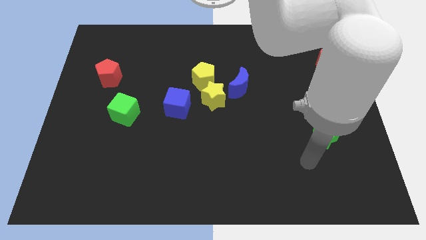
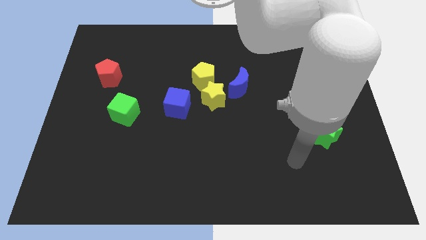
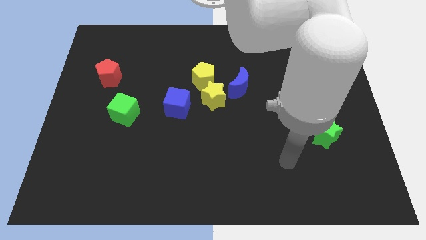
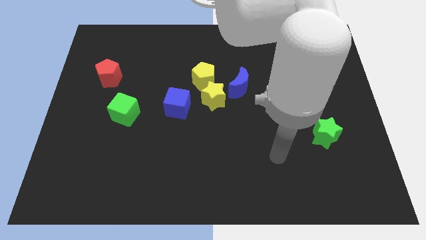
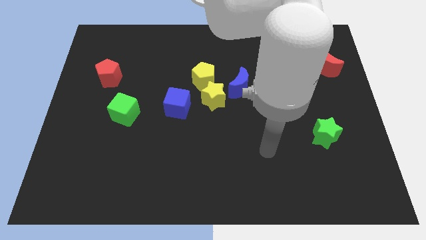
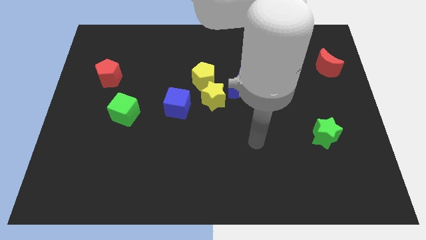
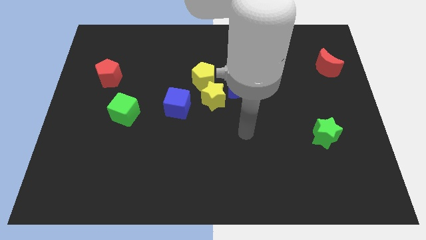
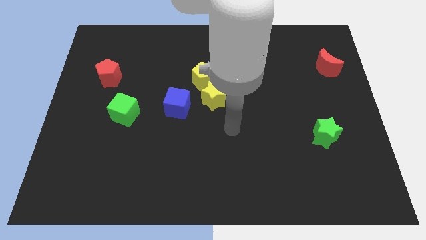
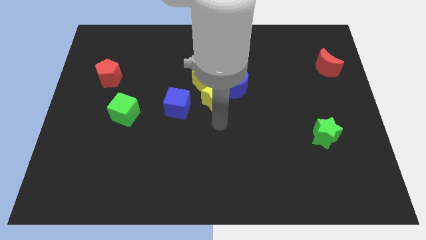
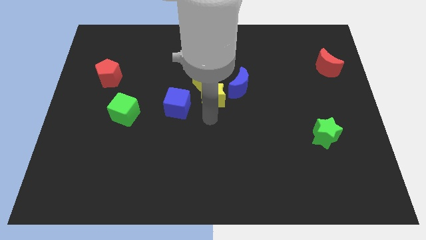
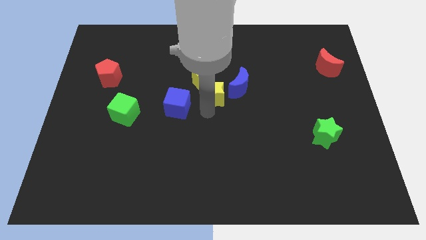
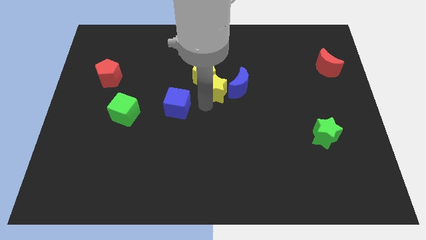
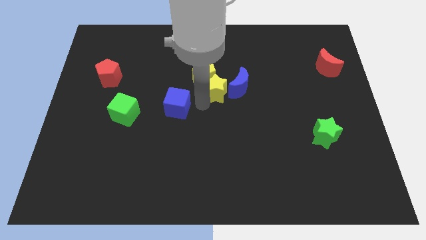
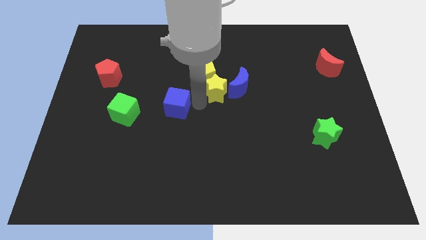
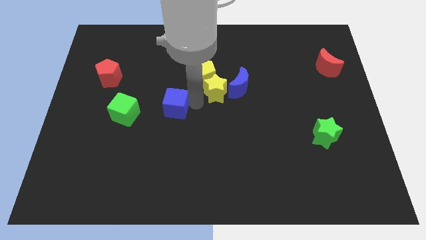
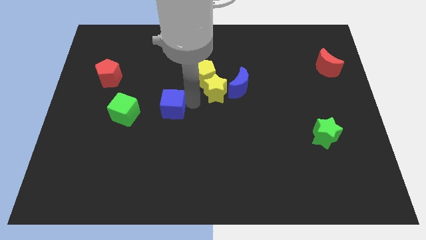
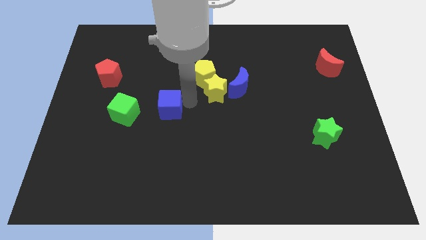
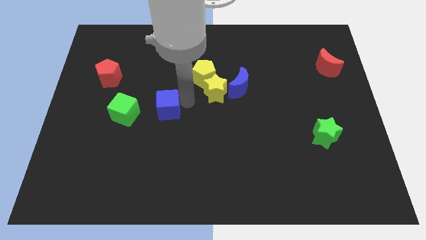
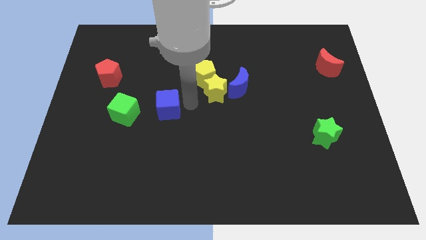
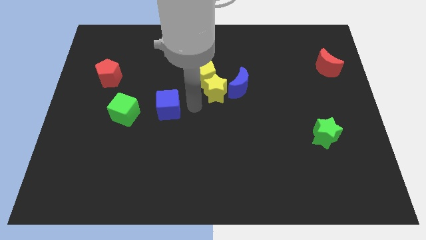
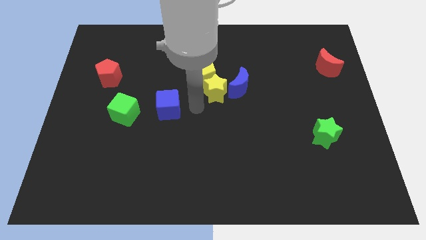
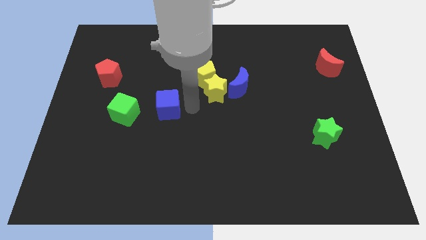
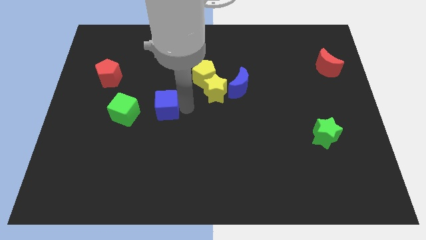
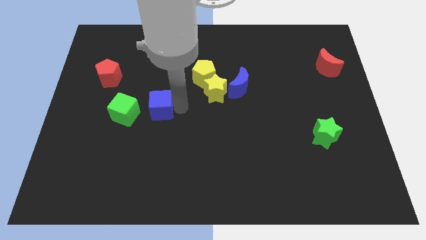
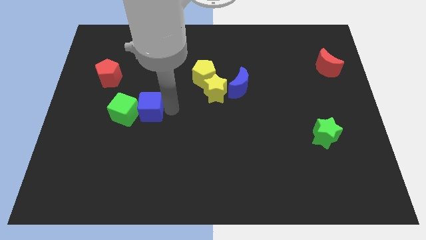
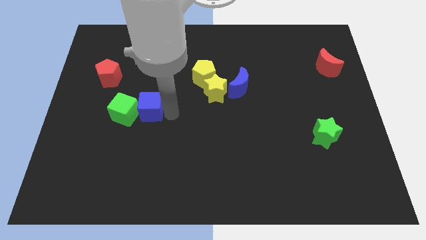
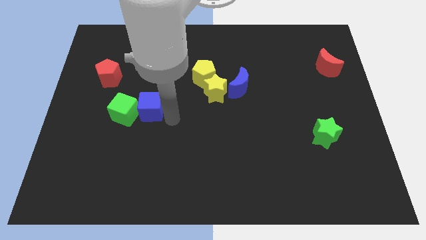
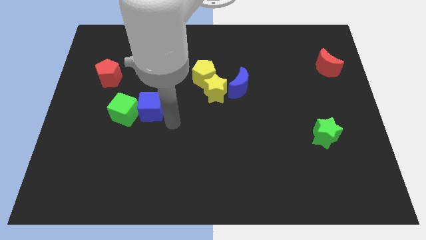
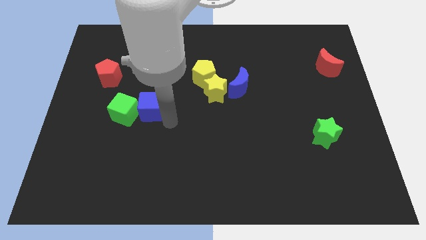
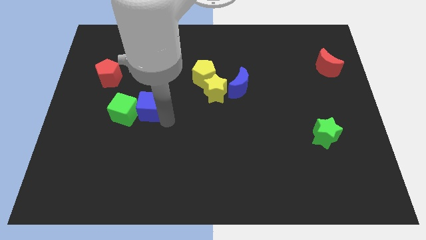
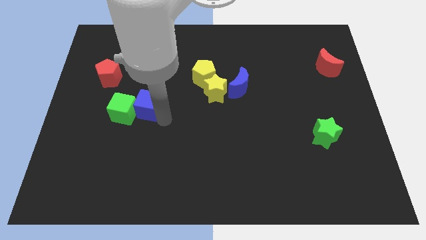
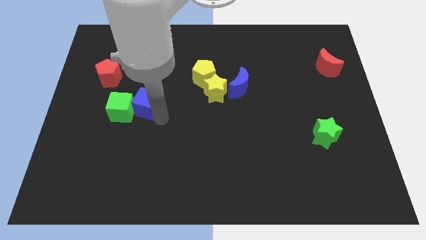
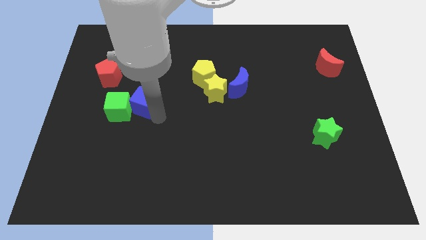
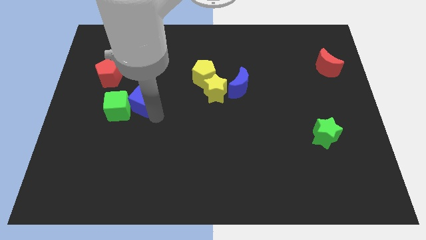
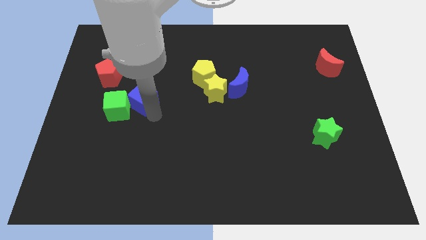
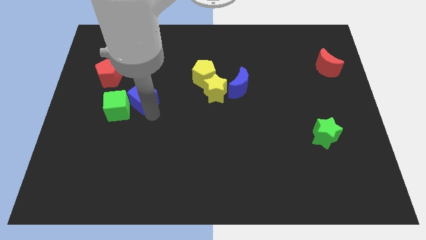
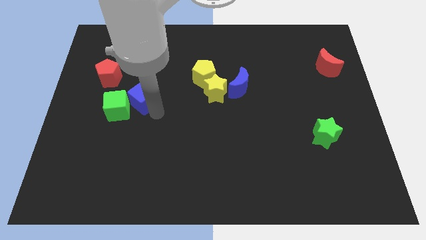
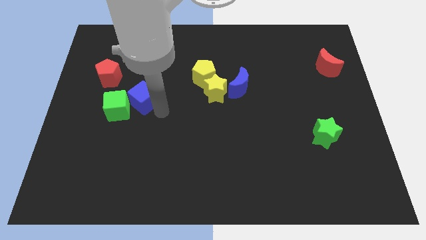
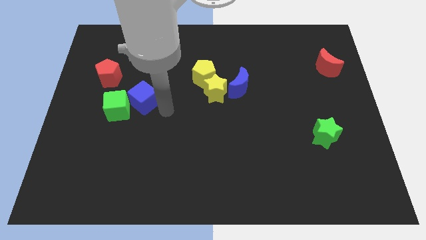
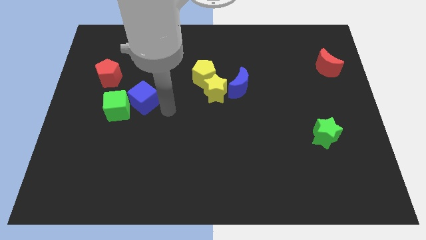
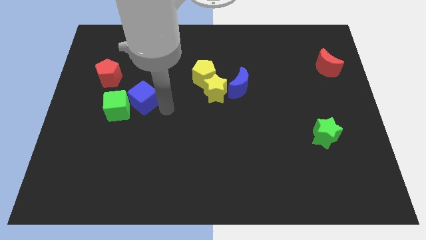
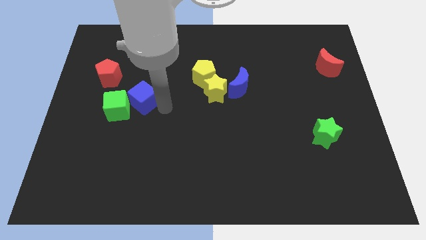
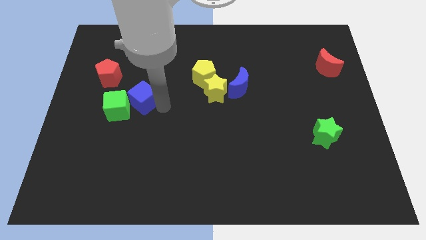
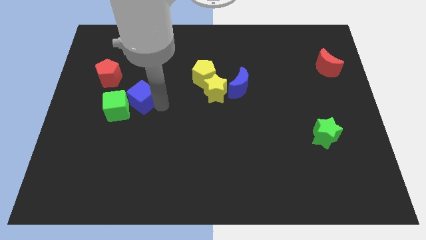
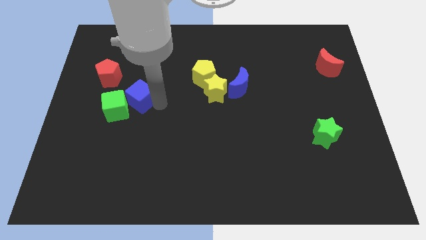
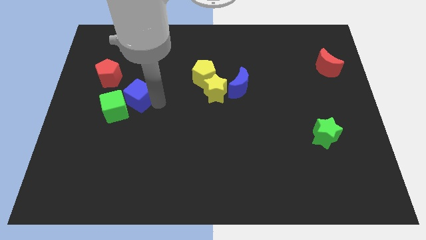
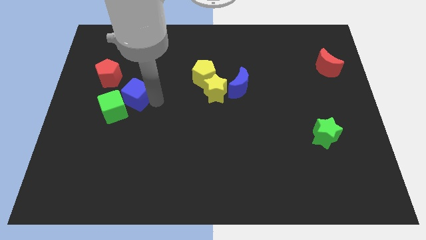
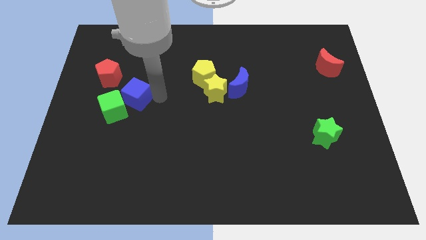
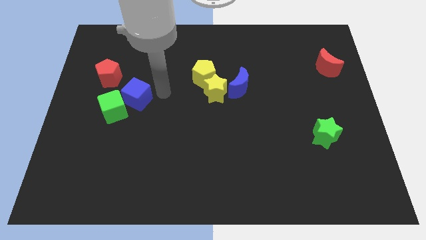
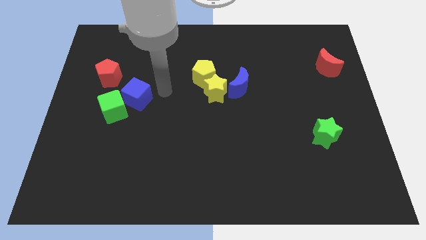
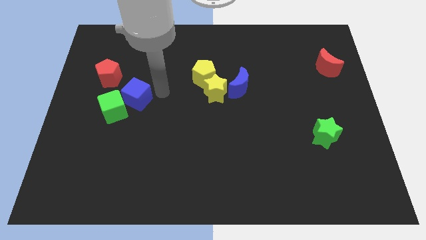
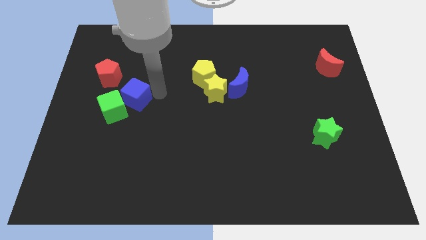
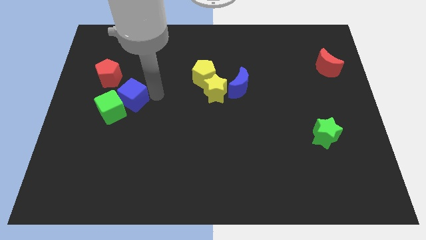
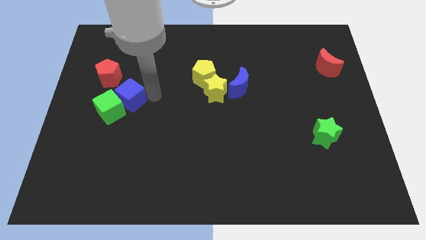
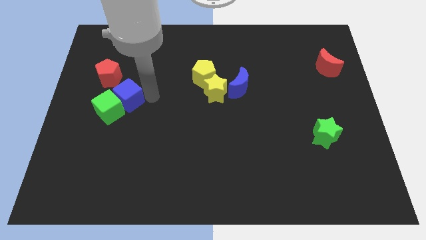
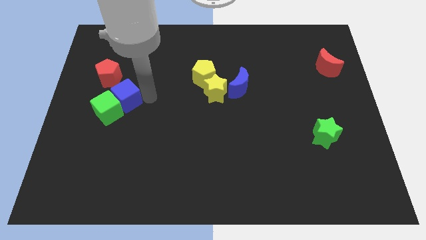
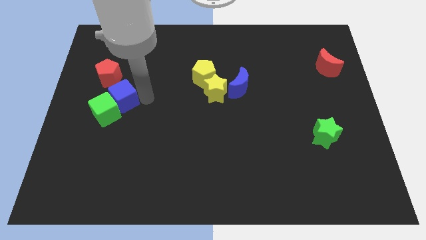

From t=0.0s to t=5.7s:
push the blue cube to the bottom of the red pentagon

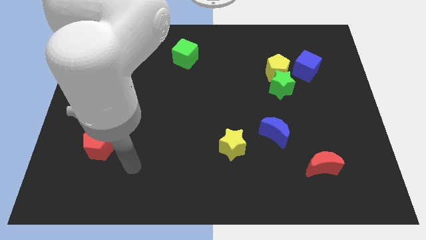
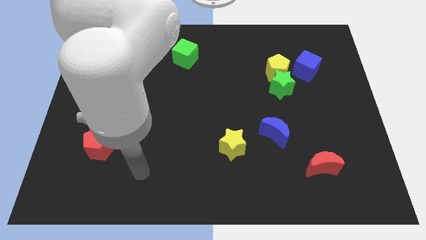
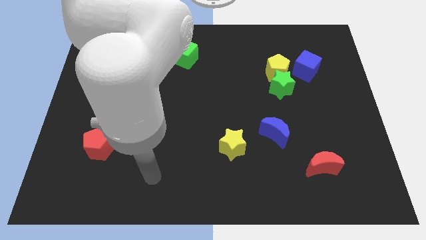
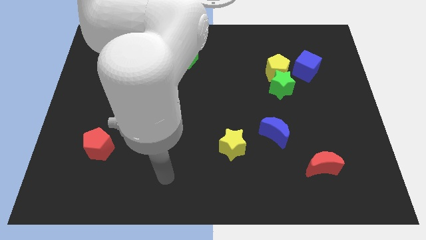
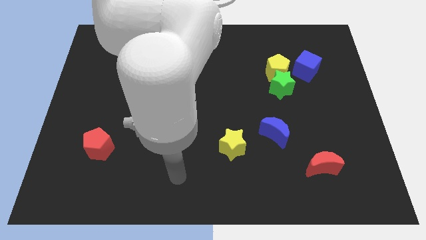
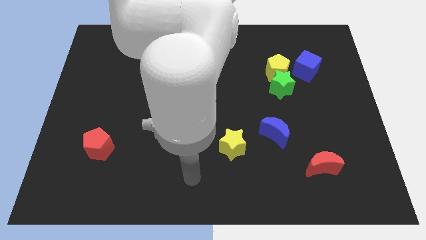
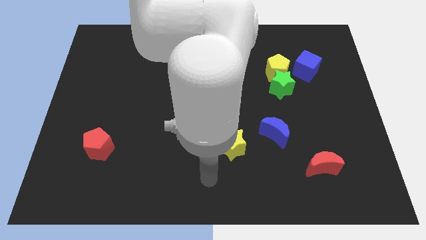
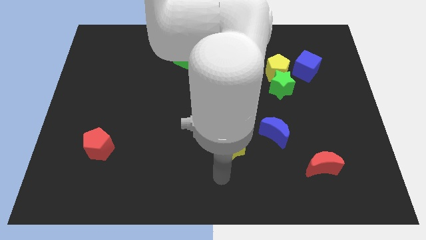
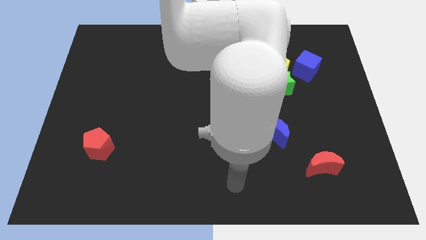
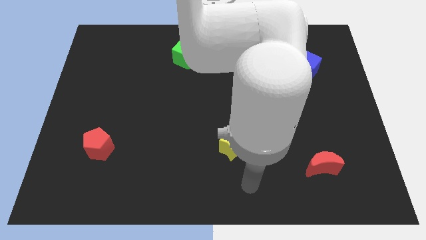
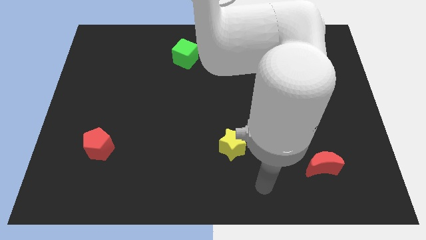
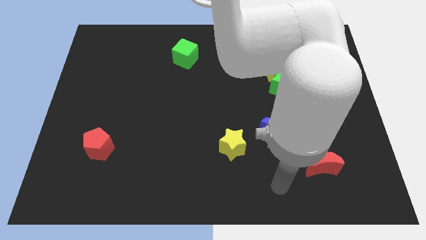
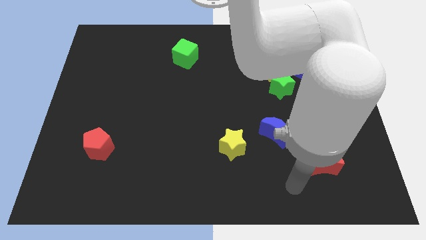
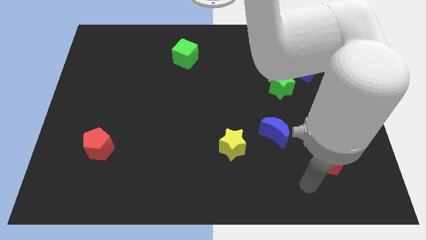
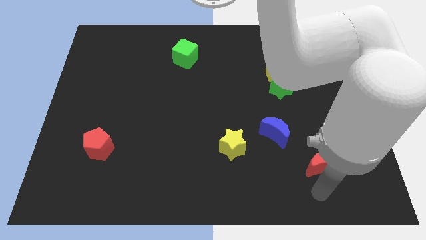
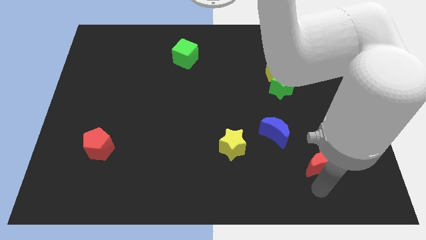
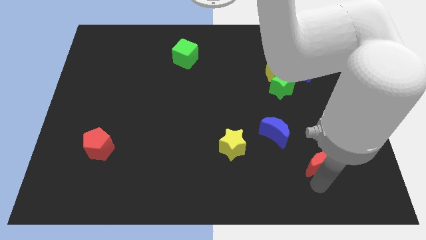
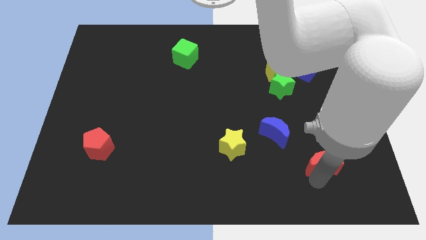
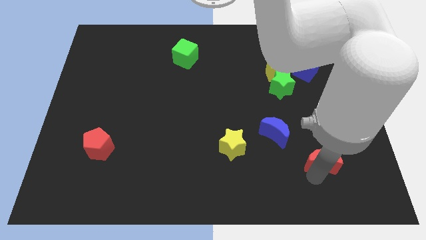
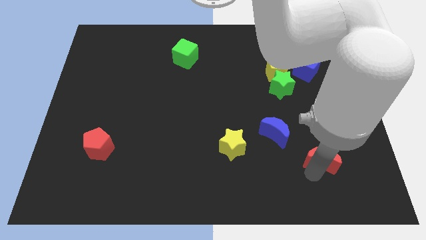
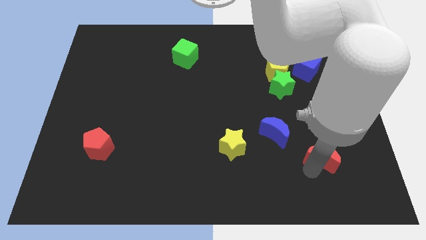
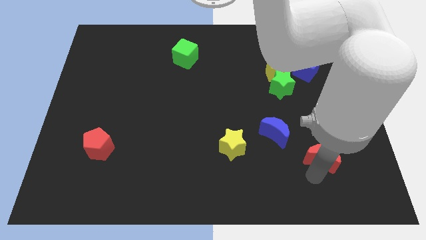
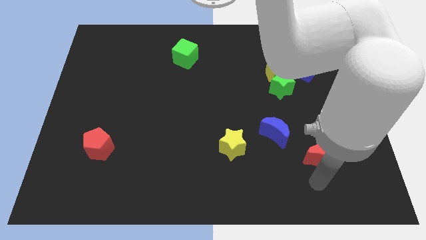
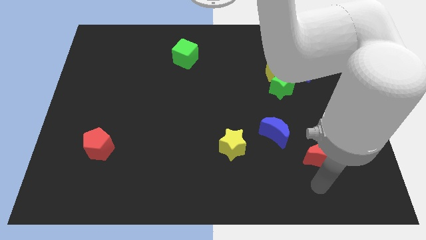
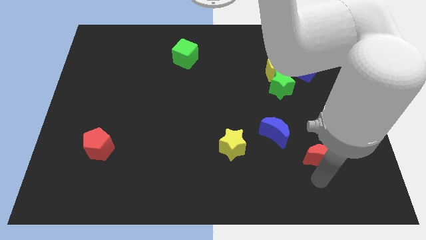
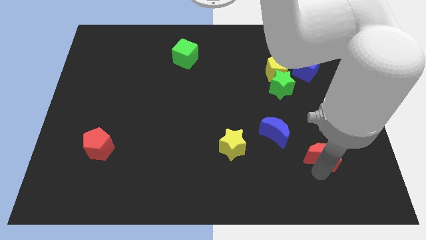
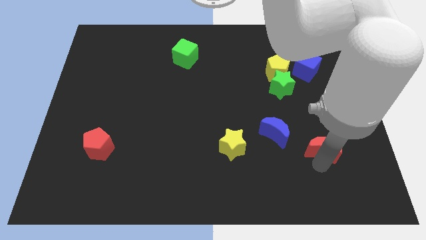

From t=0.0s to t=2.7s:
move the red moon to the right of the blue moon
